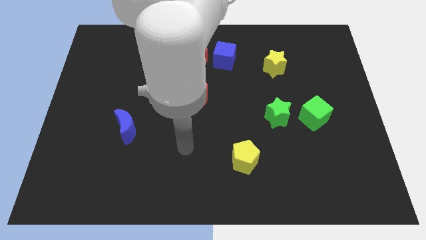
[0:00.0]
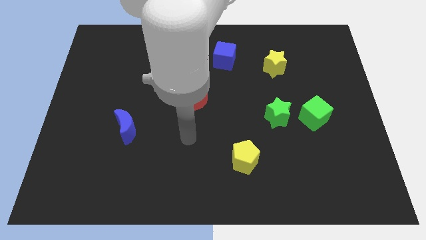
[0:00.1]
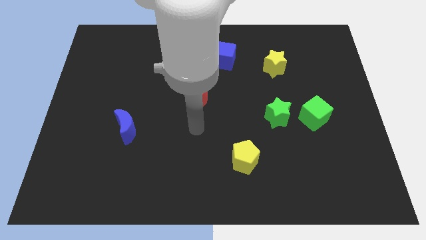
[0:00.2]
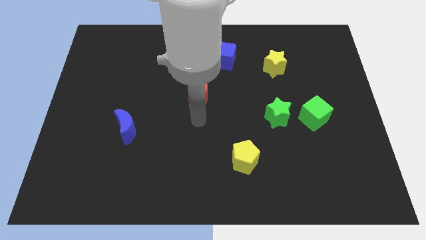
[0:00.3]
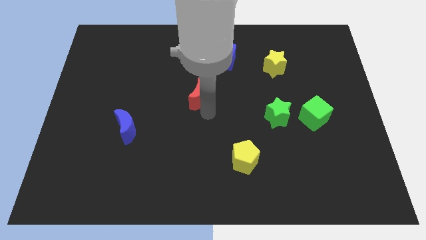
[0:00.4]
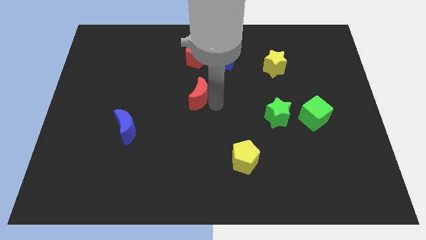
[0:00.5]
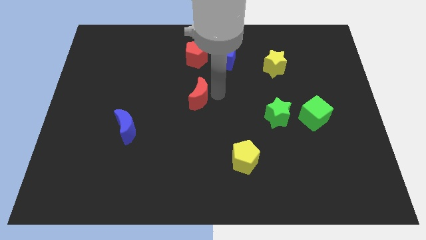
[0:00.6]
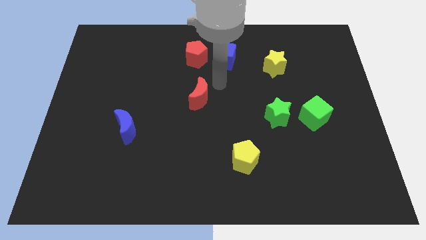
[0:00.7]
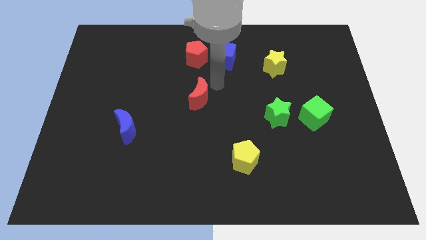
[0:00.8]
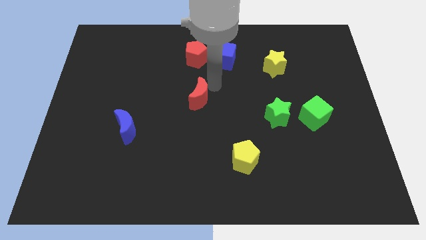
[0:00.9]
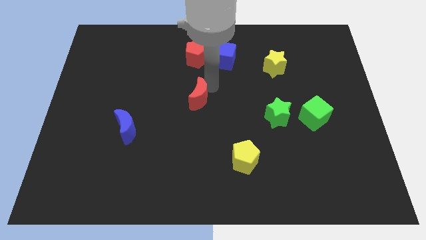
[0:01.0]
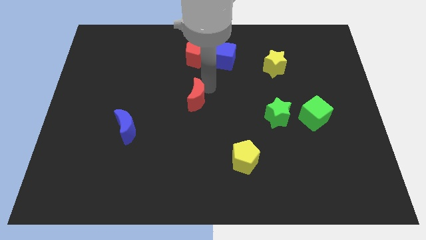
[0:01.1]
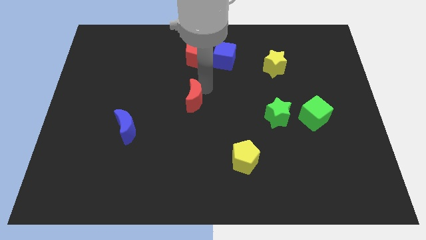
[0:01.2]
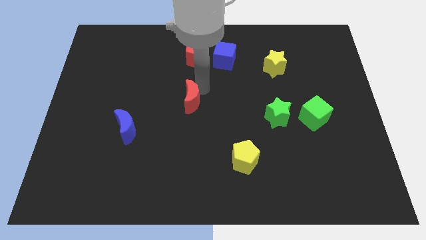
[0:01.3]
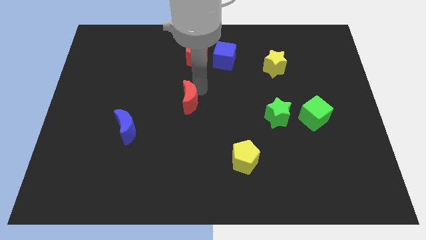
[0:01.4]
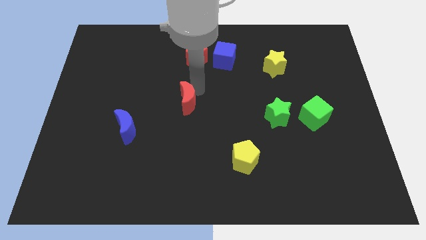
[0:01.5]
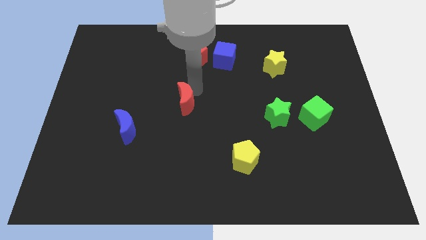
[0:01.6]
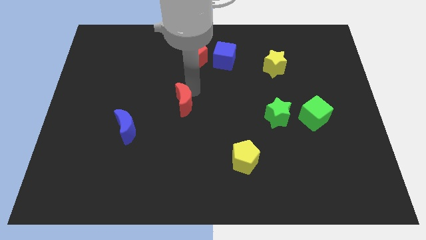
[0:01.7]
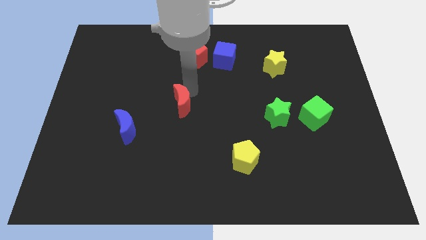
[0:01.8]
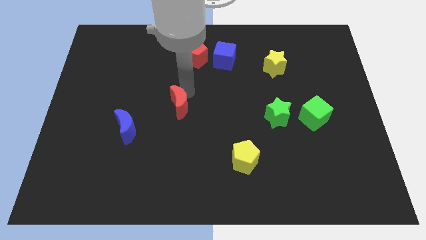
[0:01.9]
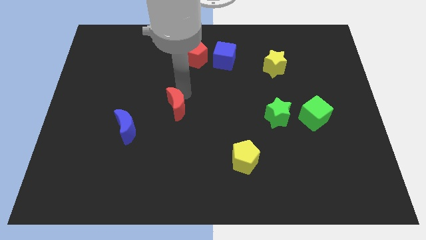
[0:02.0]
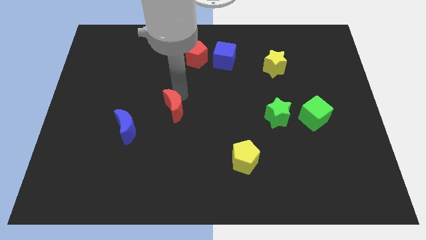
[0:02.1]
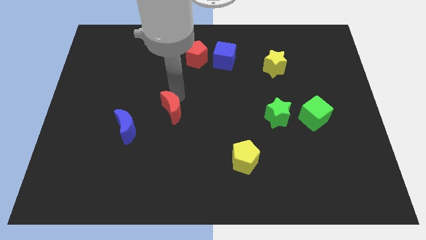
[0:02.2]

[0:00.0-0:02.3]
slightly move the red moon down and then left

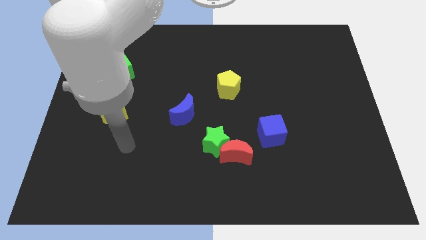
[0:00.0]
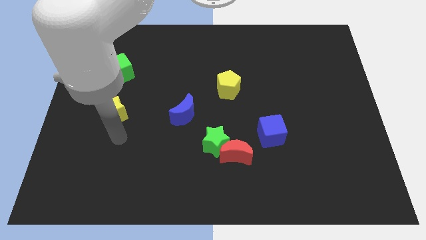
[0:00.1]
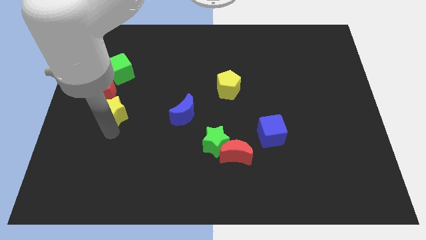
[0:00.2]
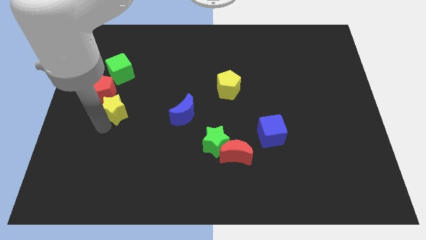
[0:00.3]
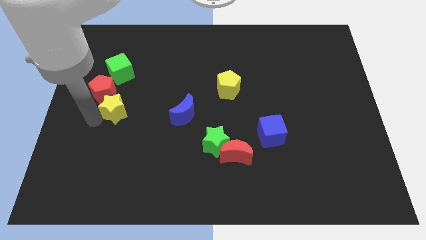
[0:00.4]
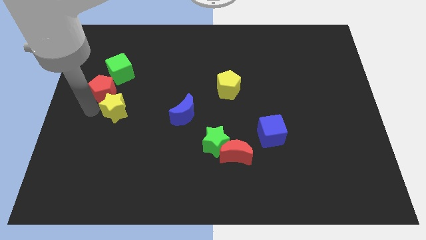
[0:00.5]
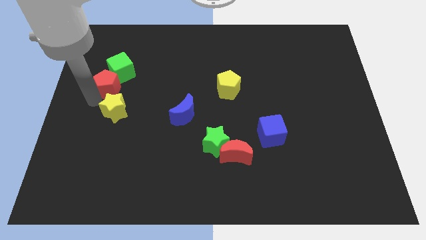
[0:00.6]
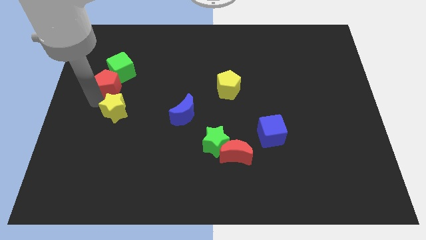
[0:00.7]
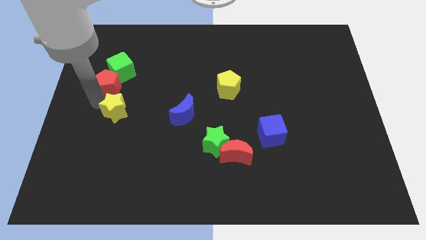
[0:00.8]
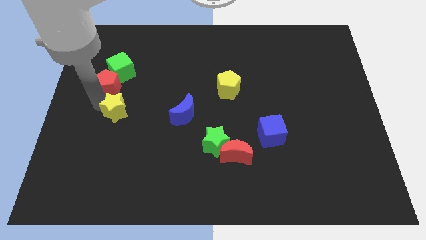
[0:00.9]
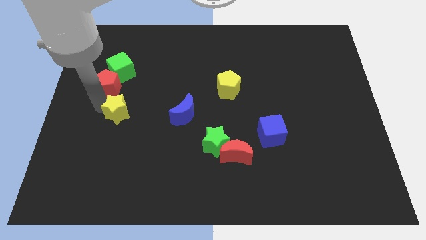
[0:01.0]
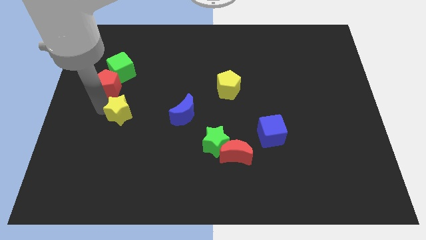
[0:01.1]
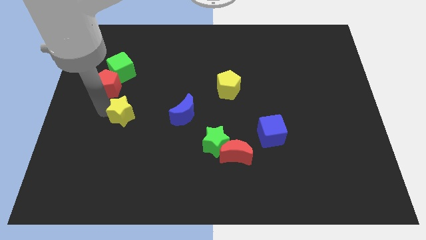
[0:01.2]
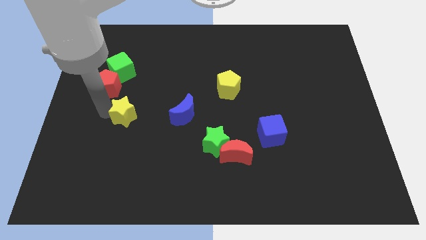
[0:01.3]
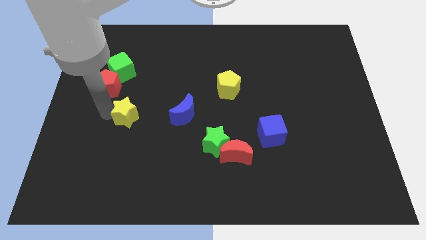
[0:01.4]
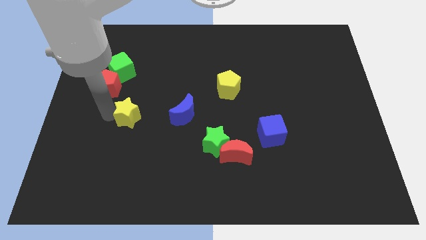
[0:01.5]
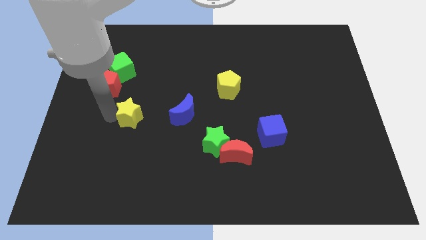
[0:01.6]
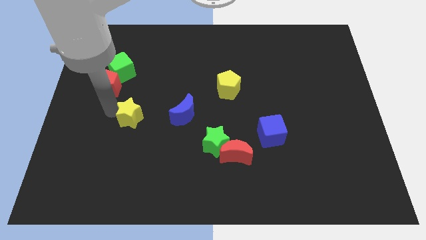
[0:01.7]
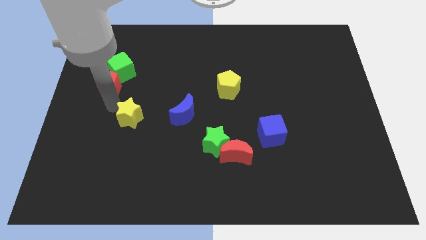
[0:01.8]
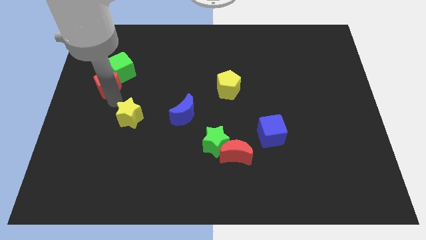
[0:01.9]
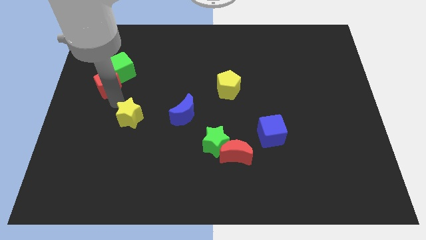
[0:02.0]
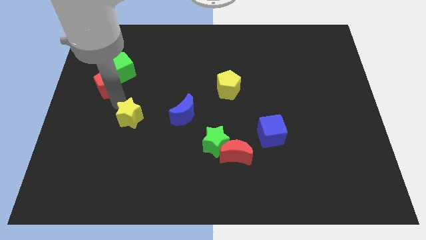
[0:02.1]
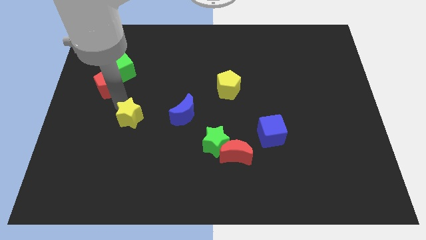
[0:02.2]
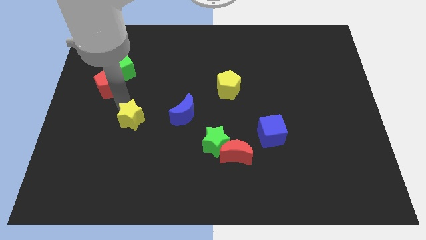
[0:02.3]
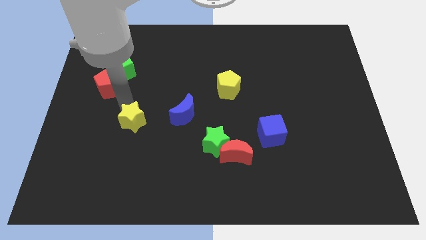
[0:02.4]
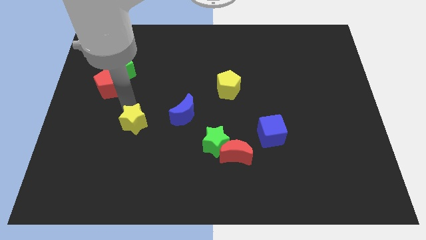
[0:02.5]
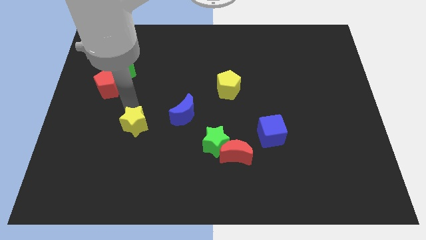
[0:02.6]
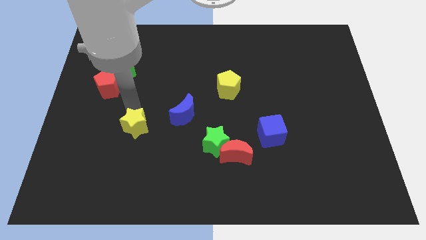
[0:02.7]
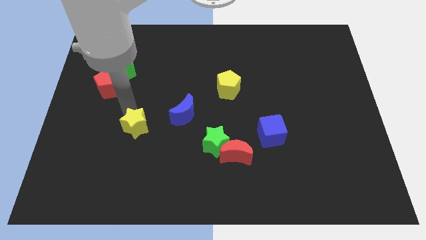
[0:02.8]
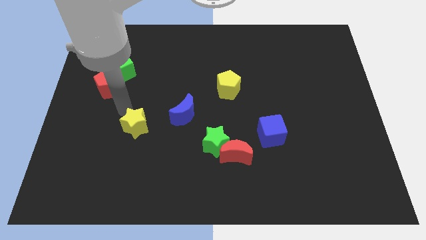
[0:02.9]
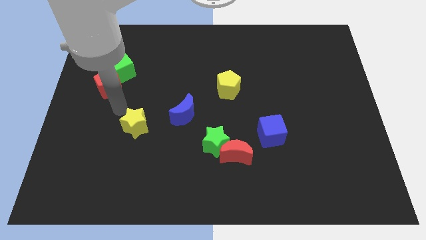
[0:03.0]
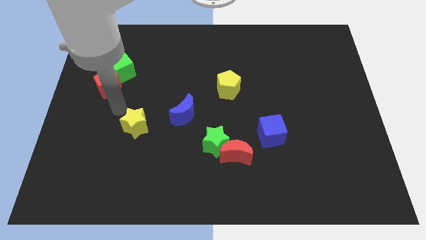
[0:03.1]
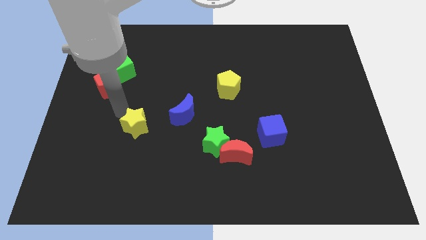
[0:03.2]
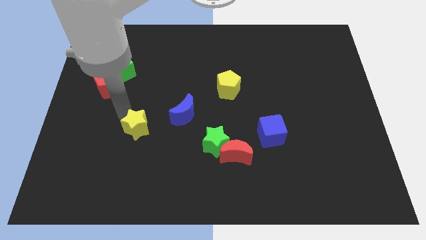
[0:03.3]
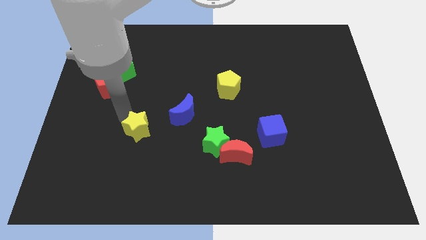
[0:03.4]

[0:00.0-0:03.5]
slightly slide the yellow star diagonally downwards and to the right

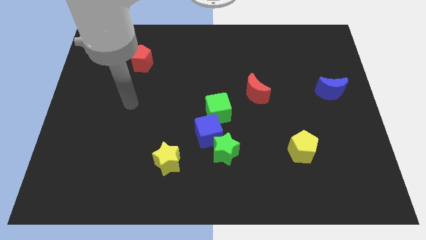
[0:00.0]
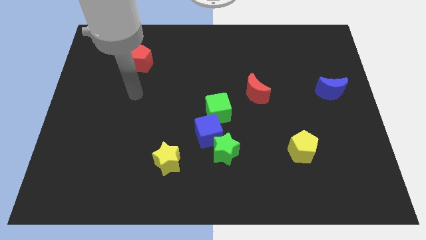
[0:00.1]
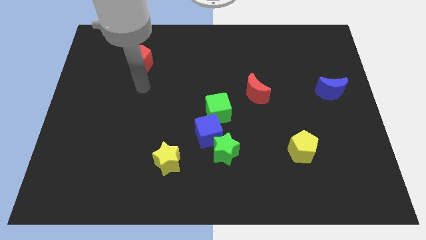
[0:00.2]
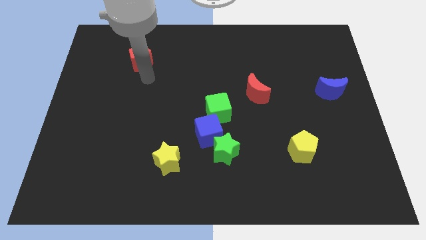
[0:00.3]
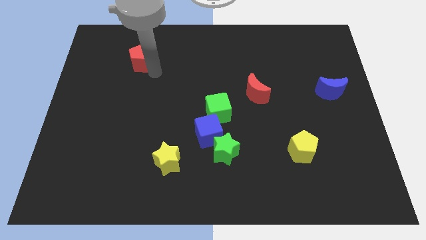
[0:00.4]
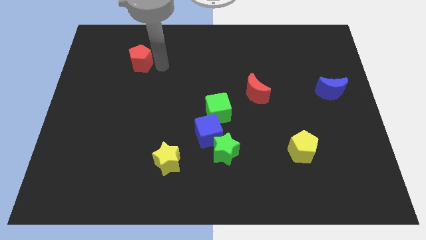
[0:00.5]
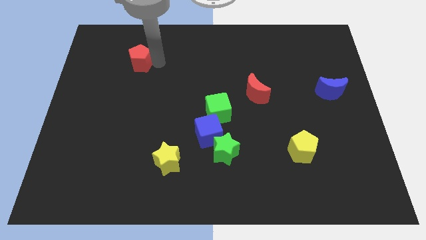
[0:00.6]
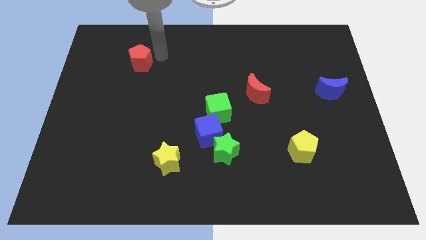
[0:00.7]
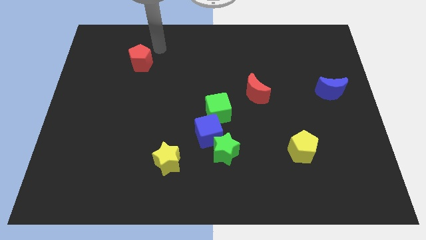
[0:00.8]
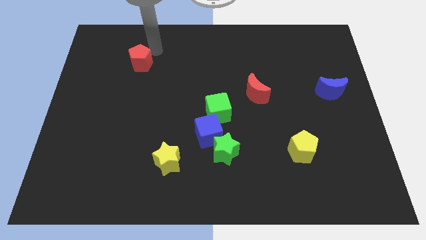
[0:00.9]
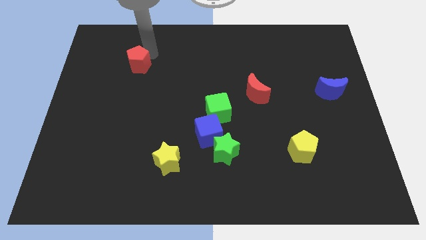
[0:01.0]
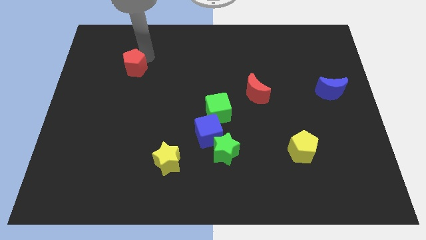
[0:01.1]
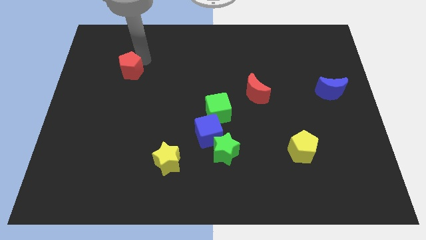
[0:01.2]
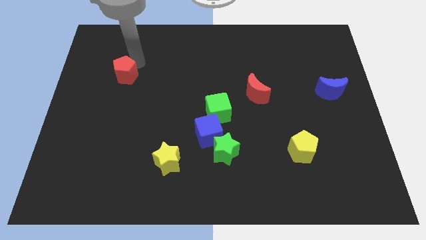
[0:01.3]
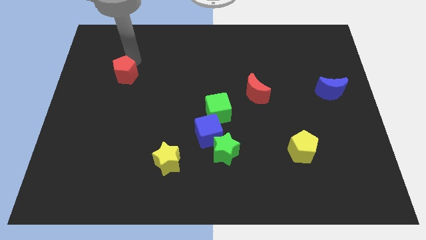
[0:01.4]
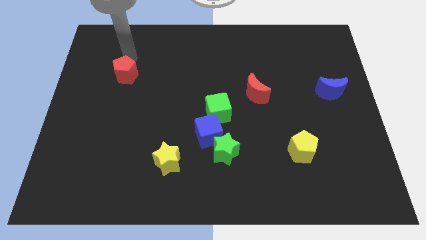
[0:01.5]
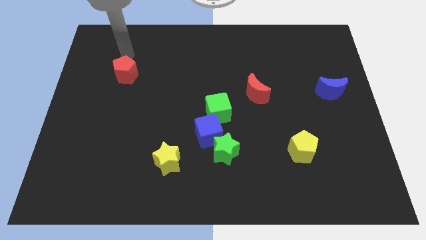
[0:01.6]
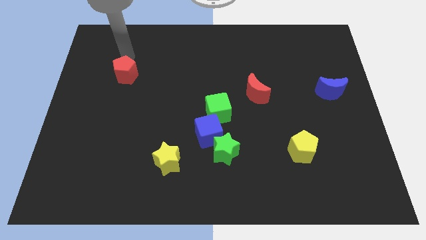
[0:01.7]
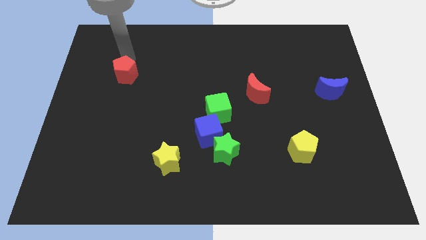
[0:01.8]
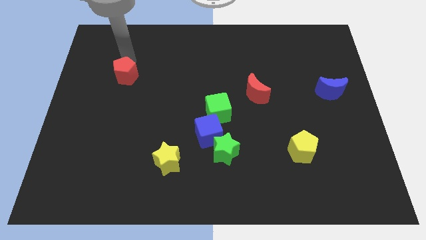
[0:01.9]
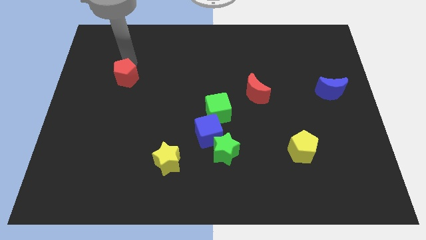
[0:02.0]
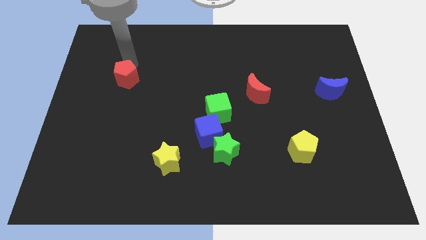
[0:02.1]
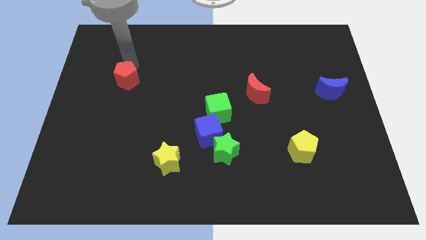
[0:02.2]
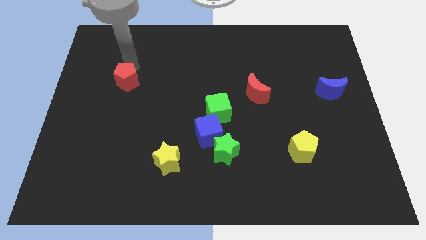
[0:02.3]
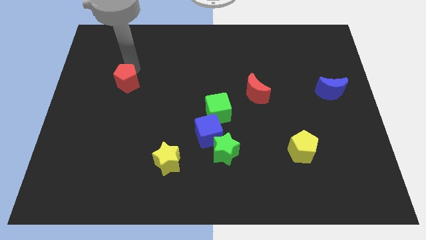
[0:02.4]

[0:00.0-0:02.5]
slide the red pentagon downwards a little bit
